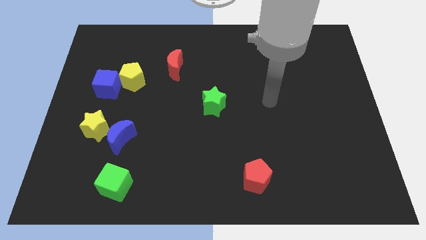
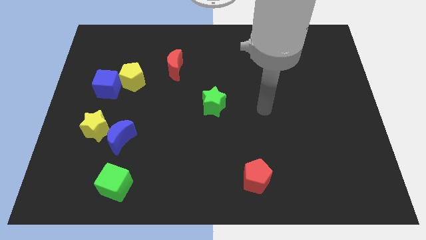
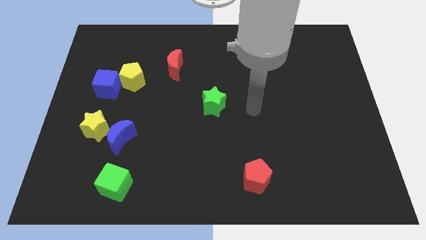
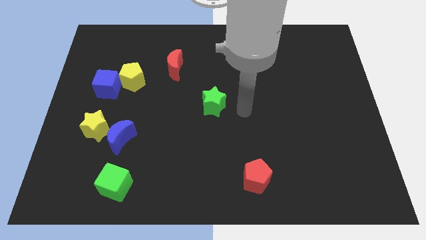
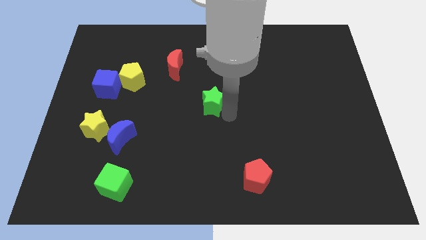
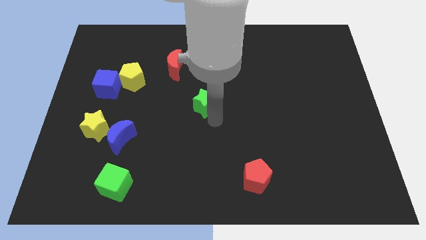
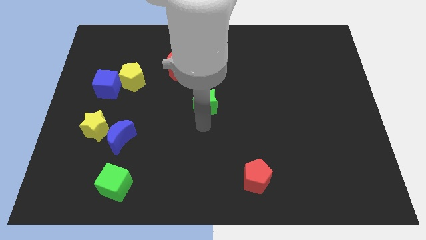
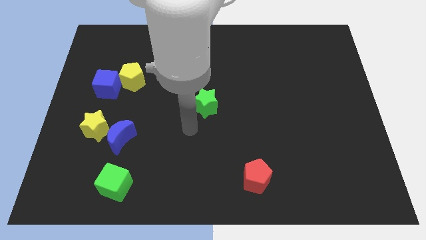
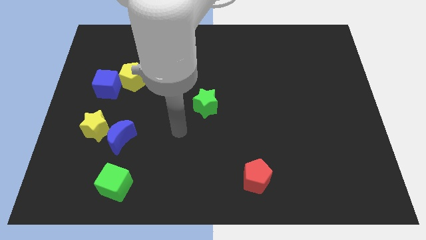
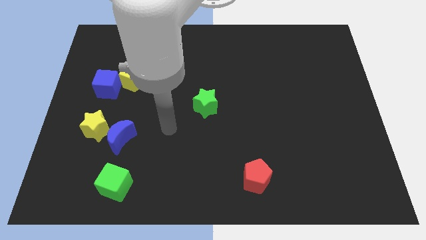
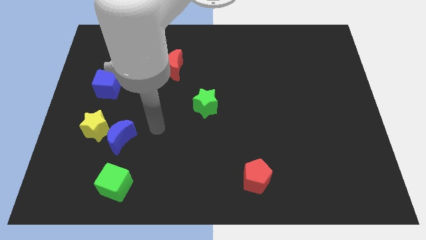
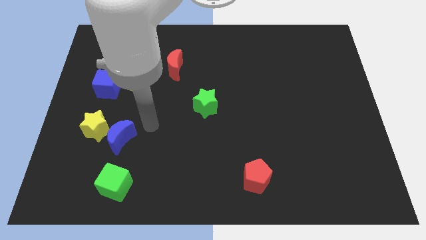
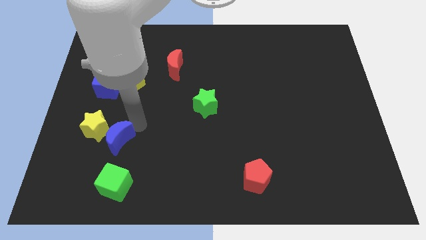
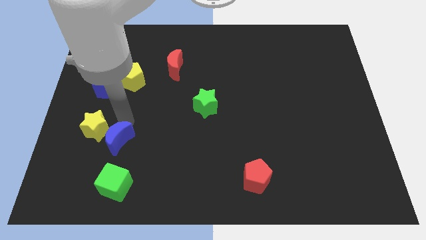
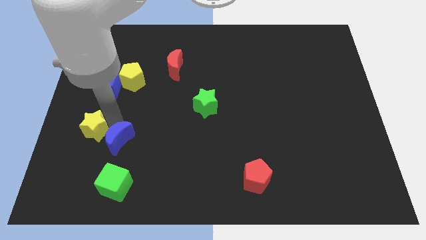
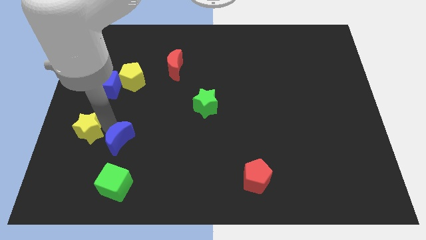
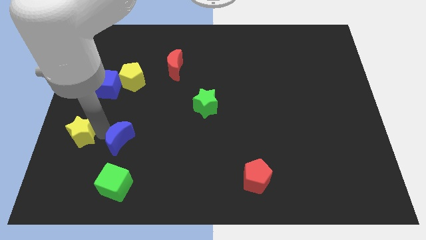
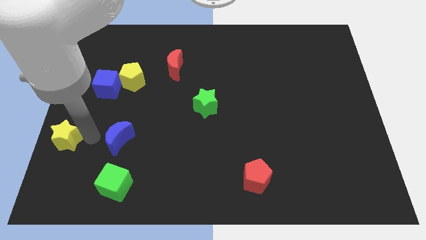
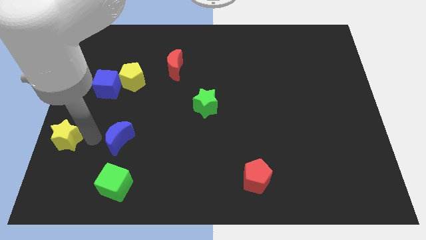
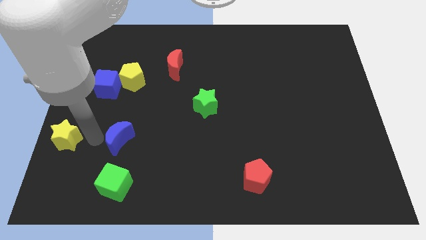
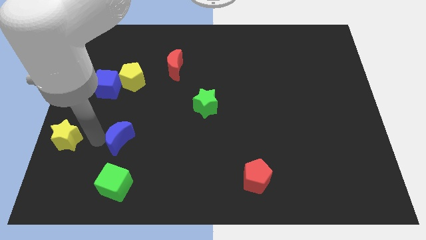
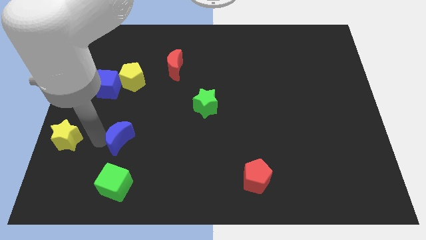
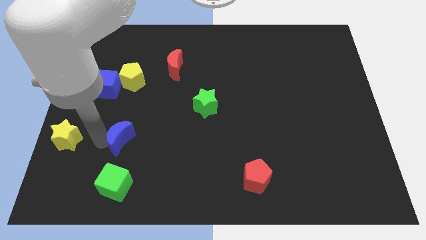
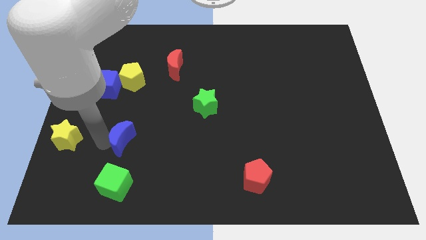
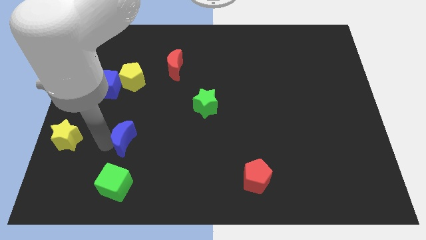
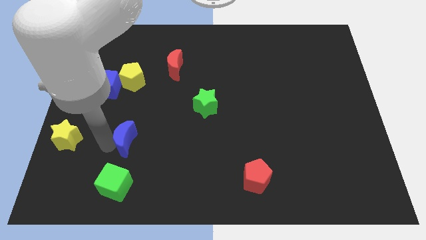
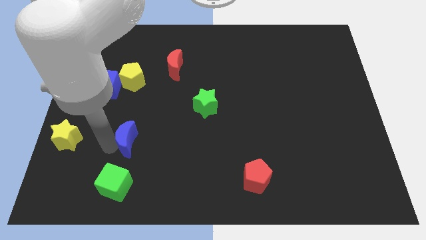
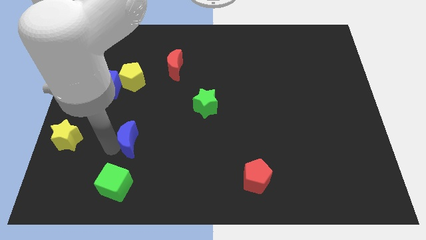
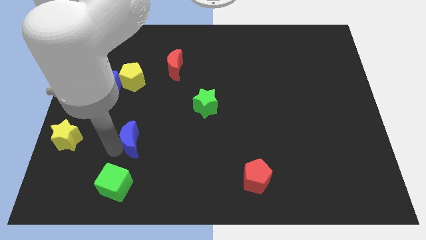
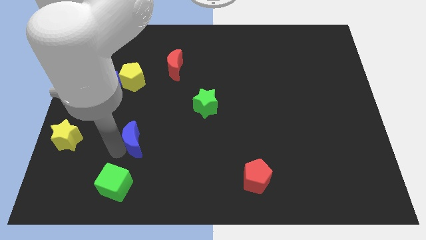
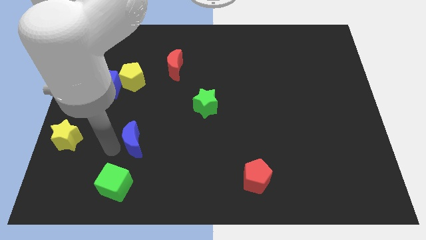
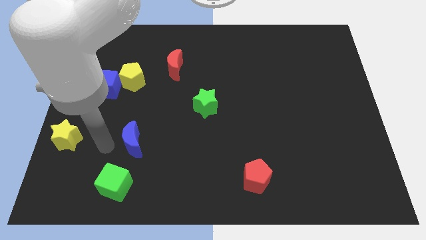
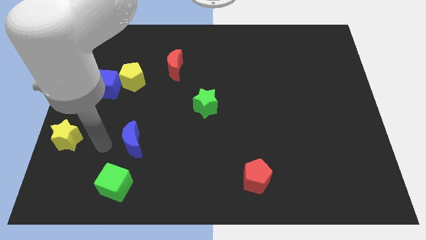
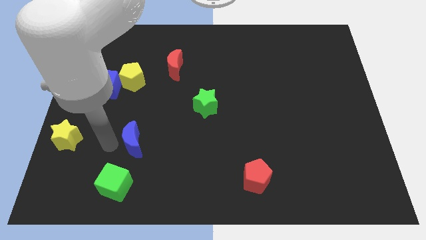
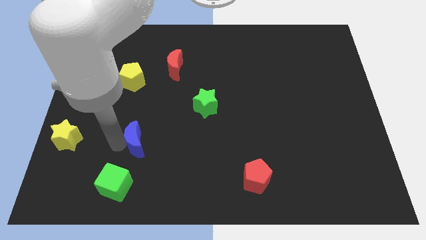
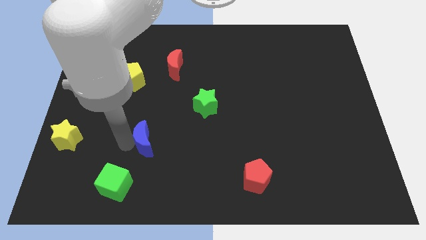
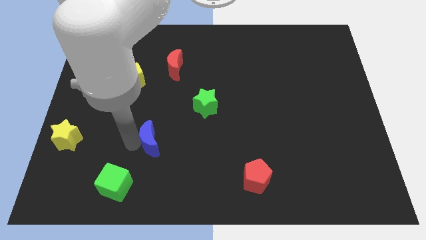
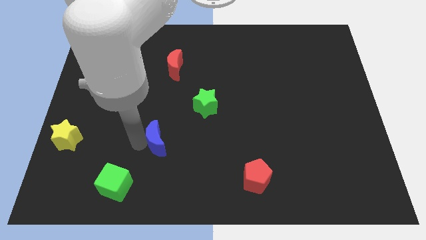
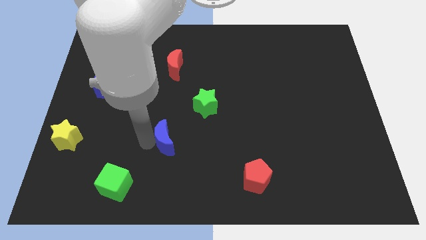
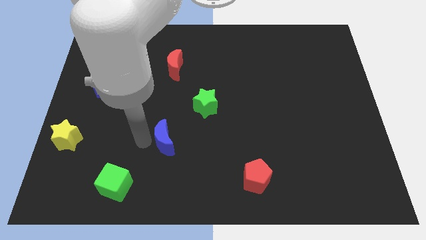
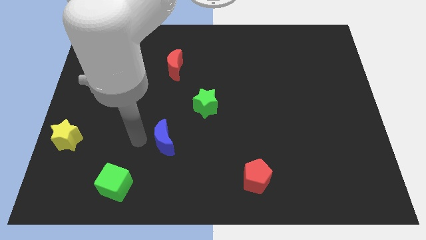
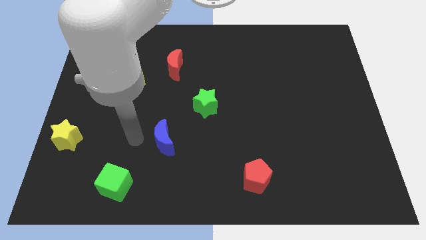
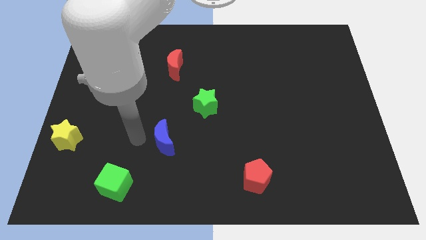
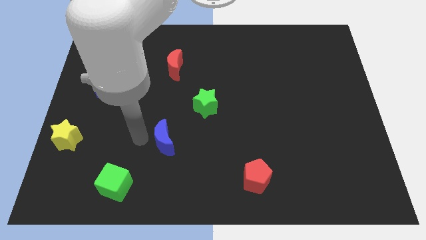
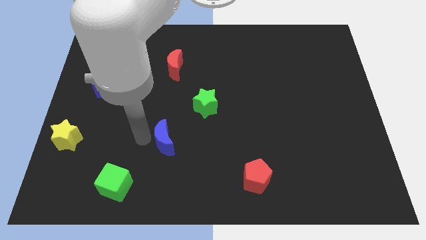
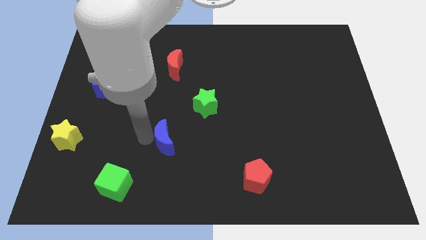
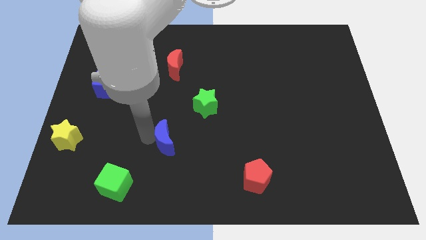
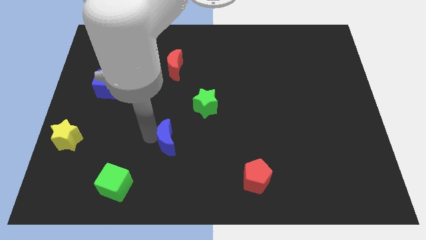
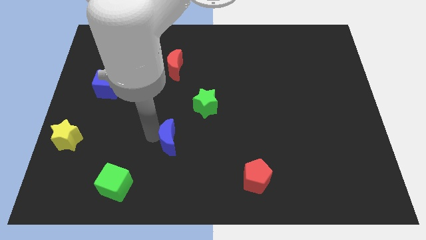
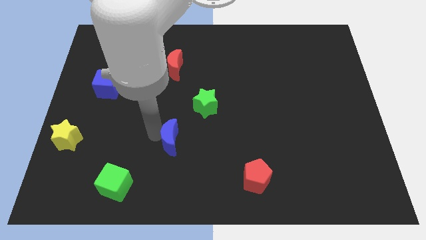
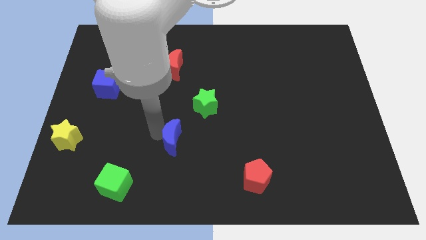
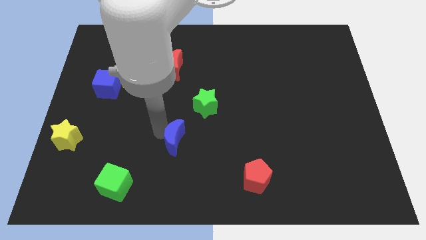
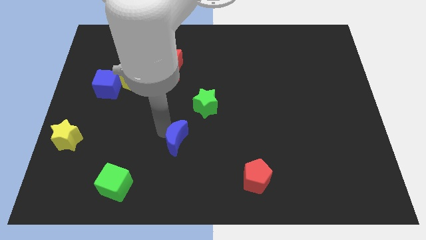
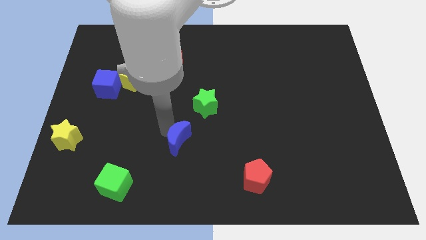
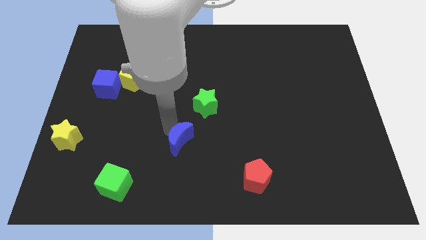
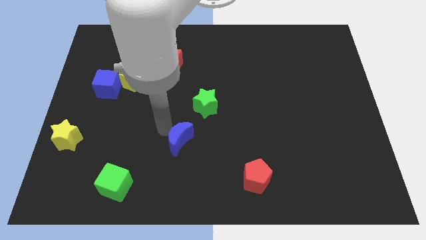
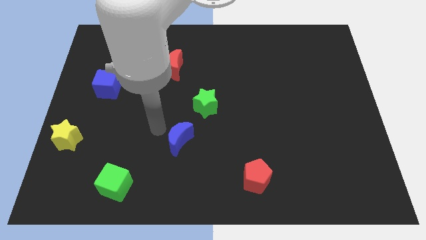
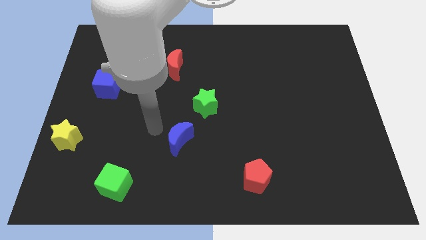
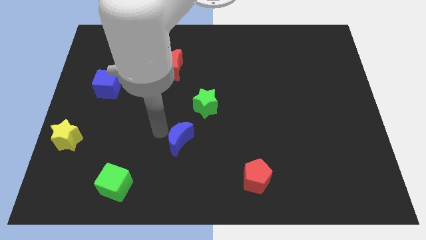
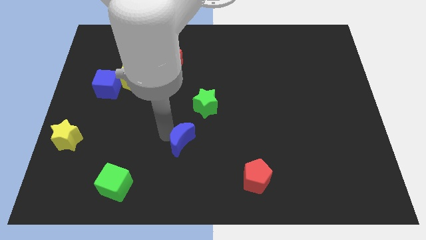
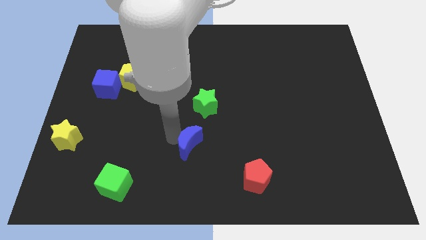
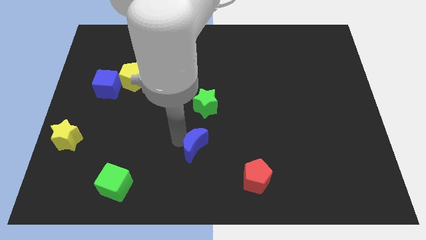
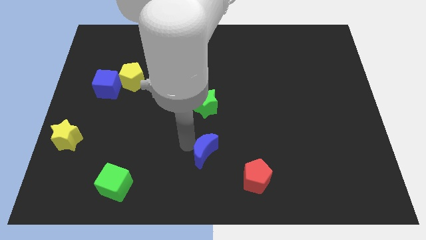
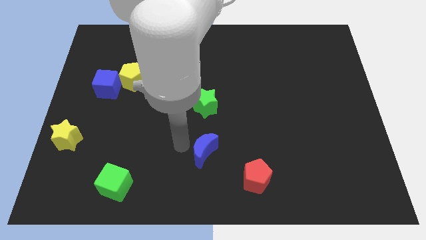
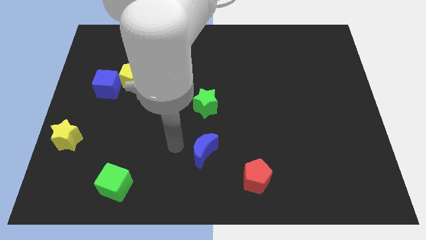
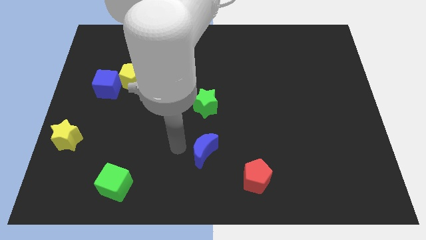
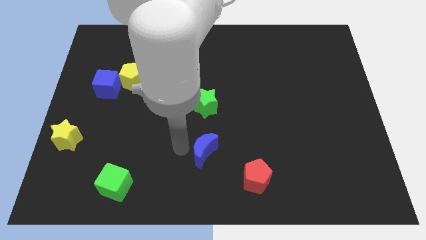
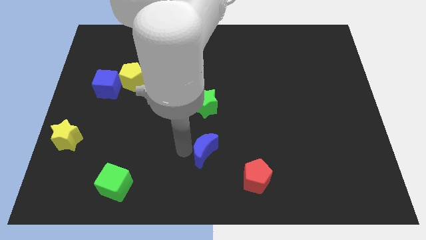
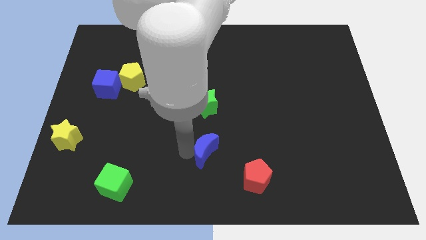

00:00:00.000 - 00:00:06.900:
put the blue moon to the top left of the red pentagon

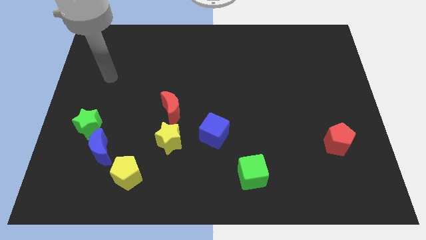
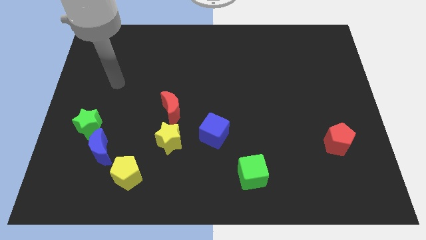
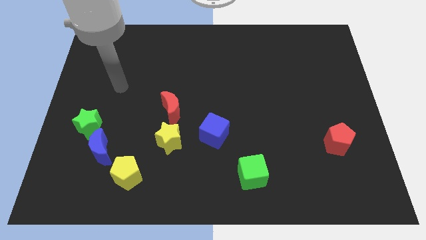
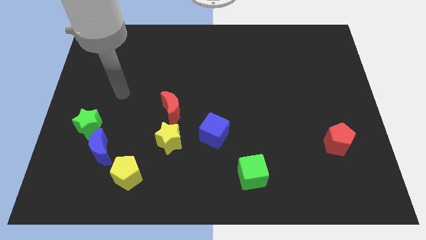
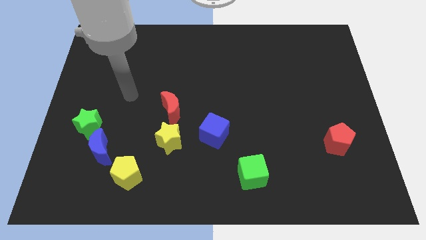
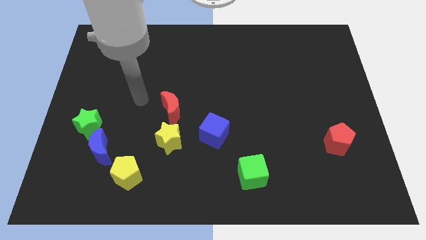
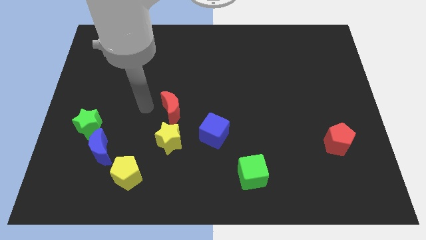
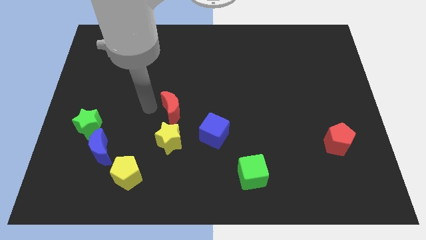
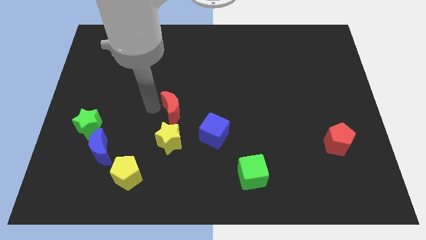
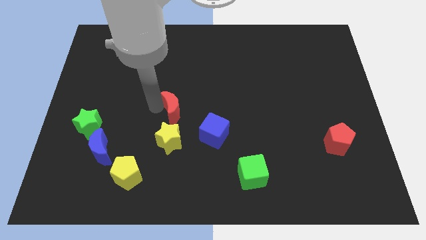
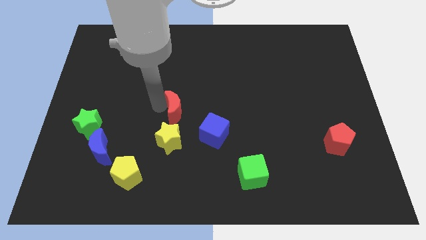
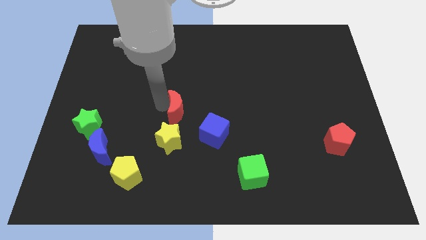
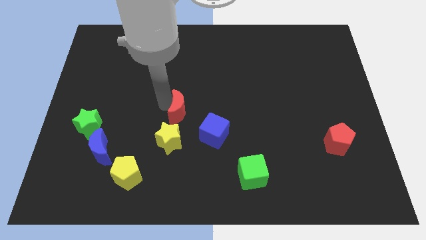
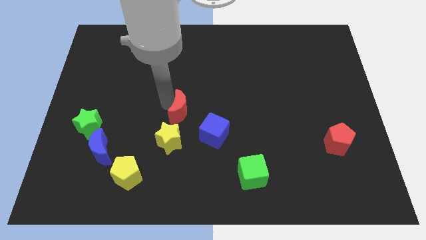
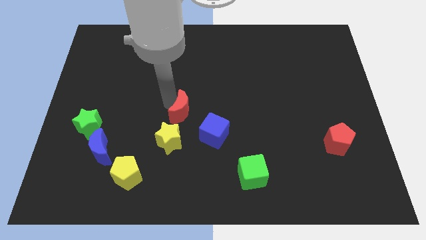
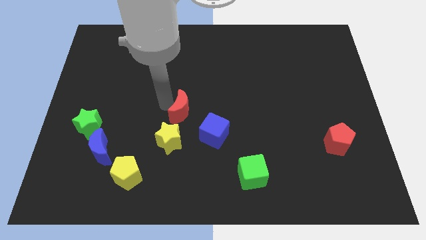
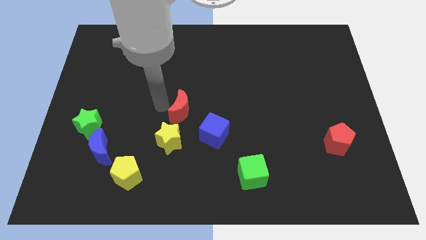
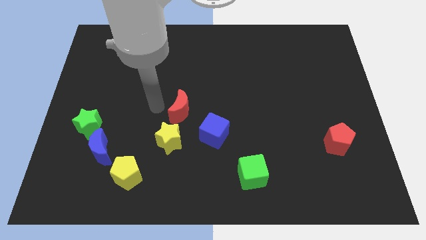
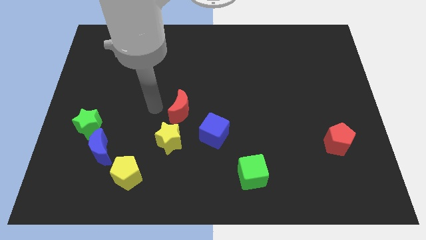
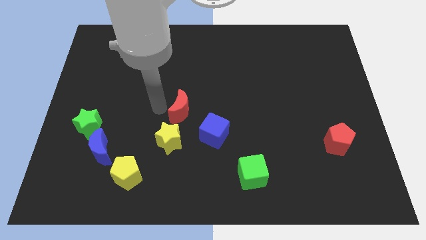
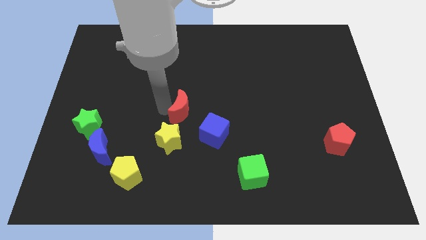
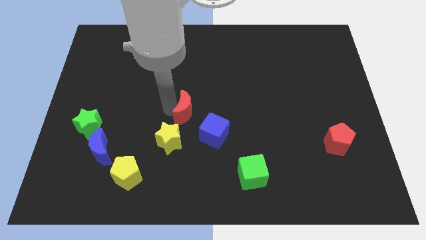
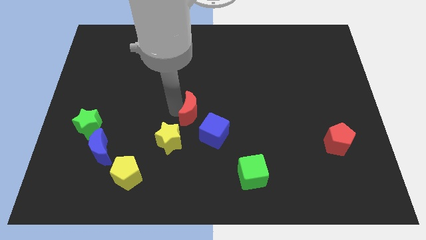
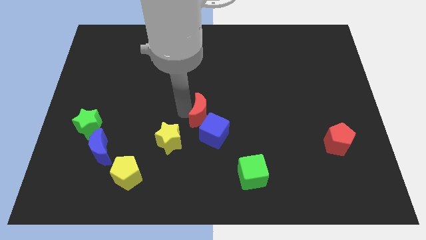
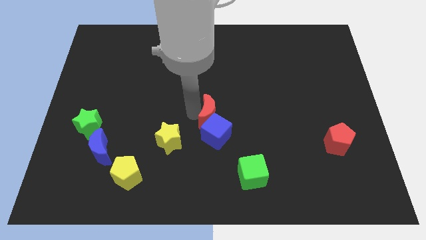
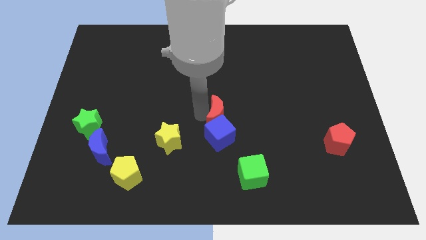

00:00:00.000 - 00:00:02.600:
move the red moon diagonally up and to the right of the blue cube
